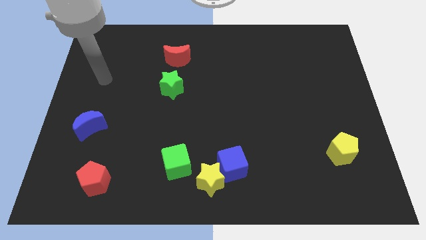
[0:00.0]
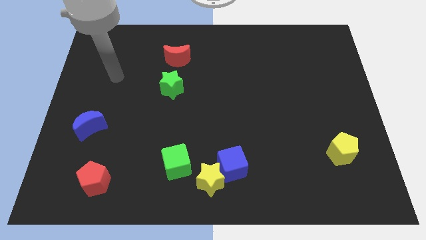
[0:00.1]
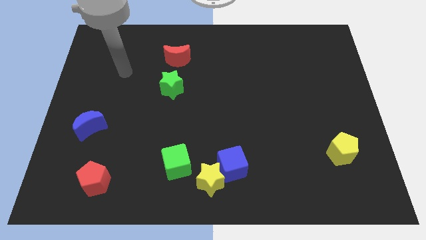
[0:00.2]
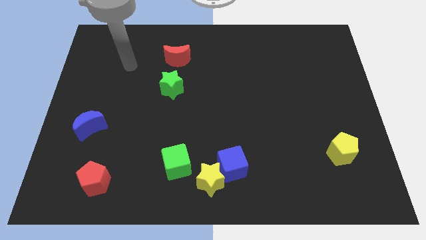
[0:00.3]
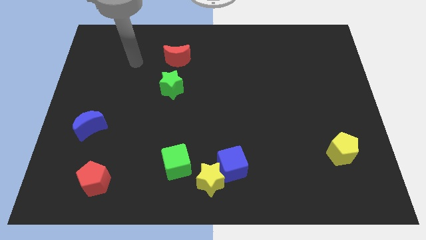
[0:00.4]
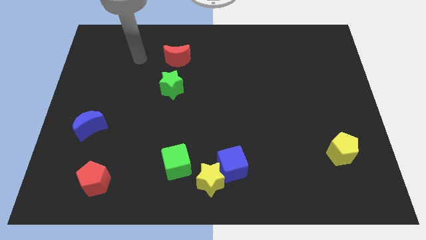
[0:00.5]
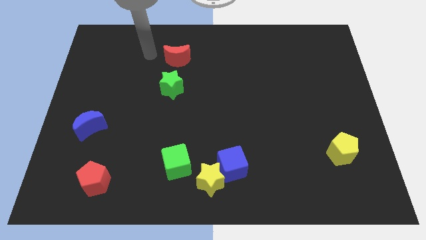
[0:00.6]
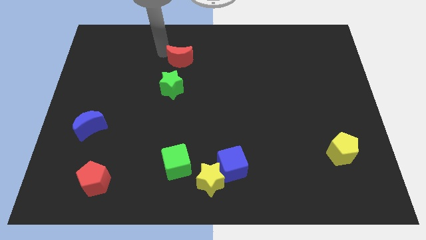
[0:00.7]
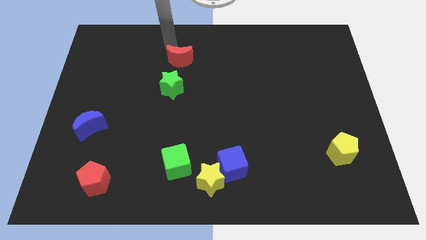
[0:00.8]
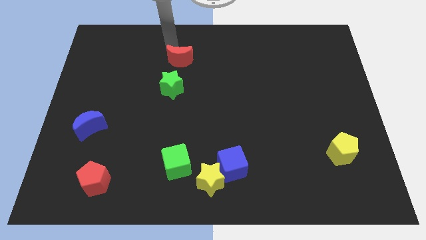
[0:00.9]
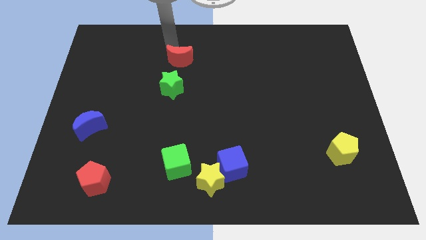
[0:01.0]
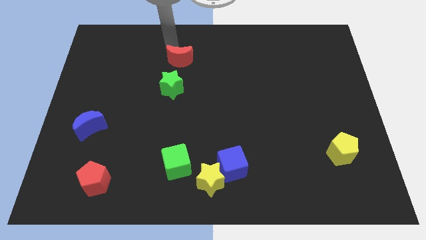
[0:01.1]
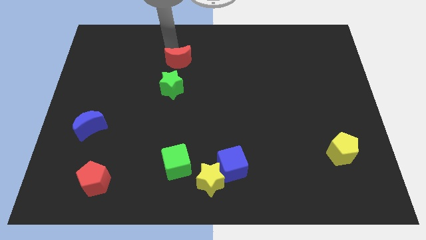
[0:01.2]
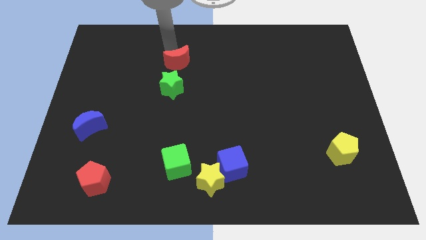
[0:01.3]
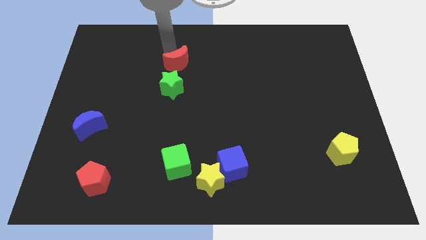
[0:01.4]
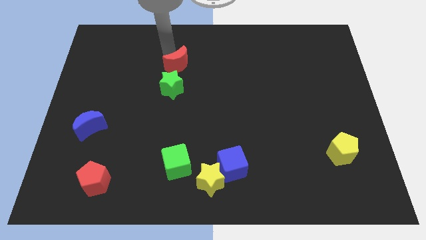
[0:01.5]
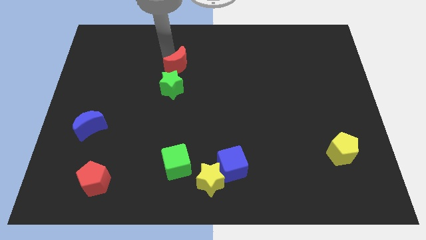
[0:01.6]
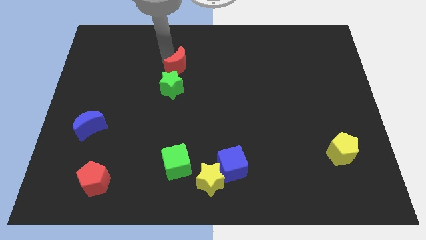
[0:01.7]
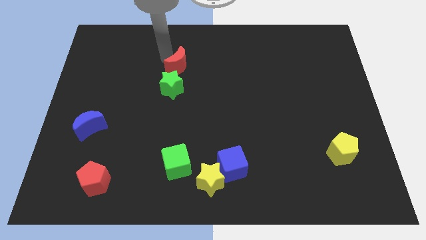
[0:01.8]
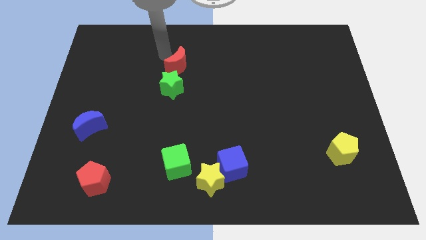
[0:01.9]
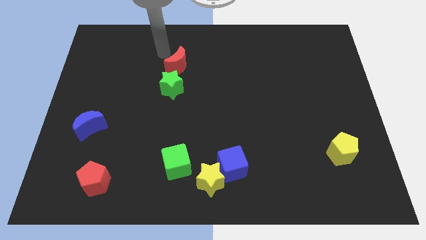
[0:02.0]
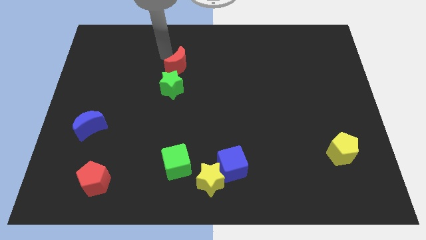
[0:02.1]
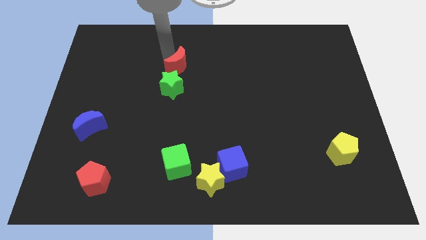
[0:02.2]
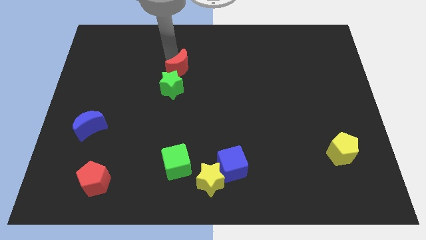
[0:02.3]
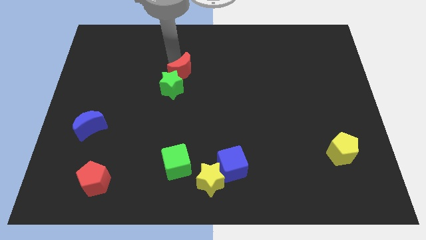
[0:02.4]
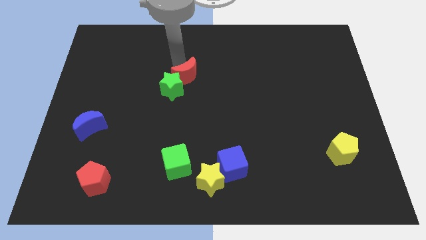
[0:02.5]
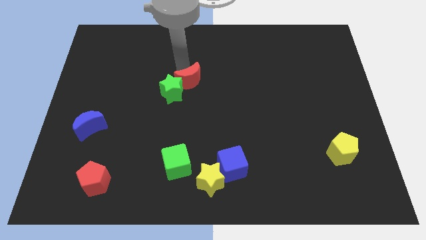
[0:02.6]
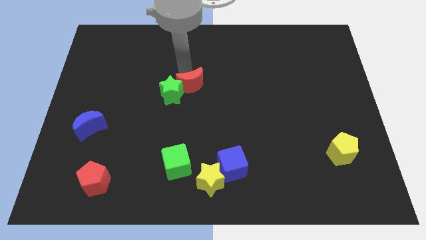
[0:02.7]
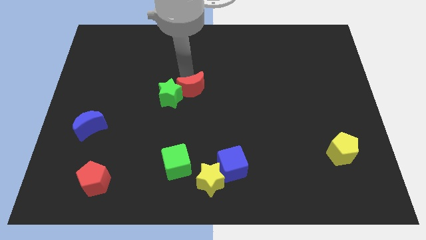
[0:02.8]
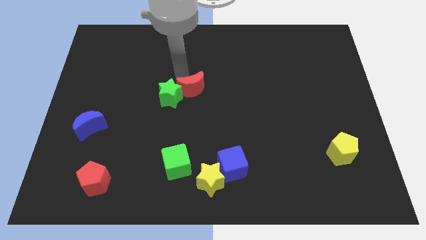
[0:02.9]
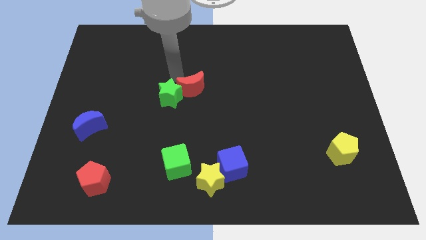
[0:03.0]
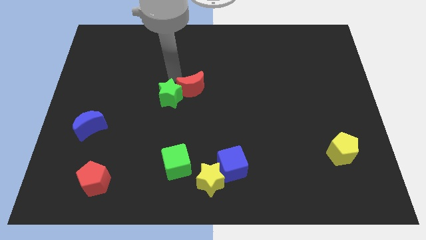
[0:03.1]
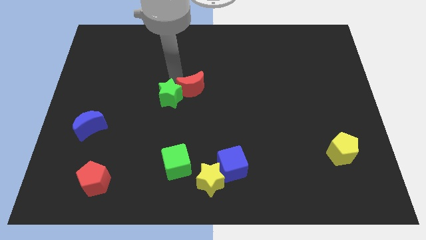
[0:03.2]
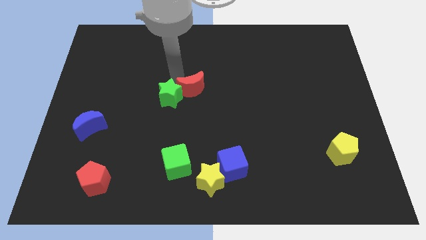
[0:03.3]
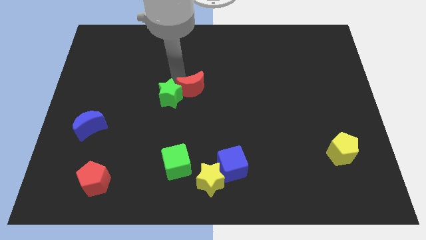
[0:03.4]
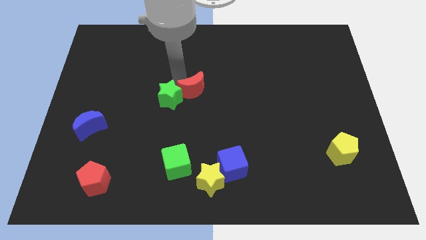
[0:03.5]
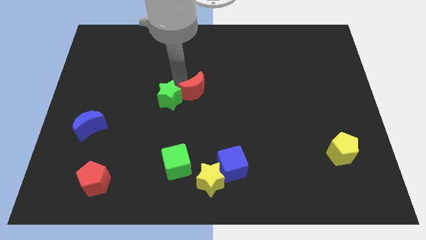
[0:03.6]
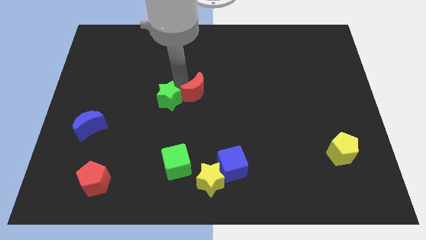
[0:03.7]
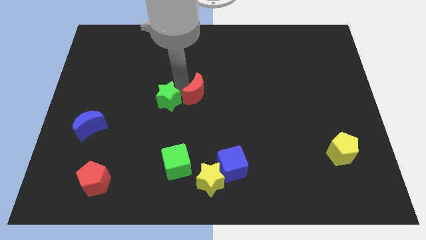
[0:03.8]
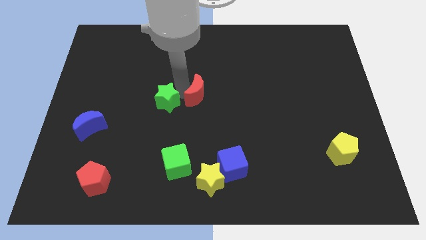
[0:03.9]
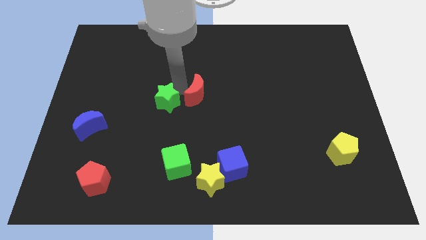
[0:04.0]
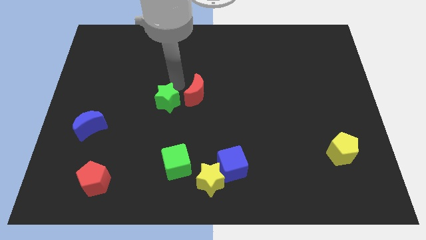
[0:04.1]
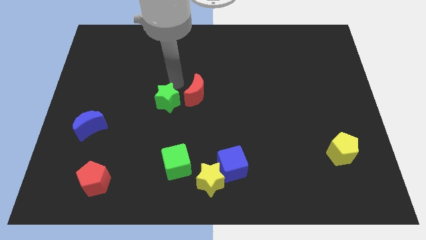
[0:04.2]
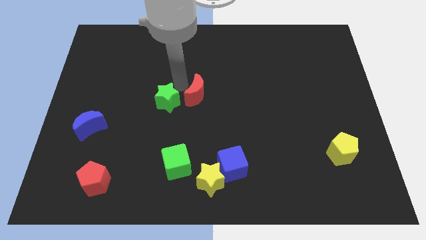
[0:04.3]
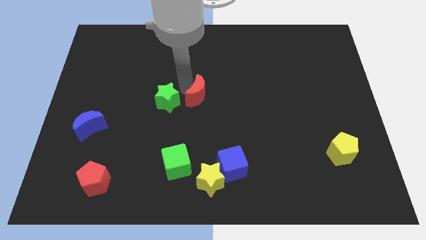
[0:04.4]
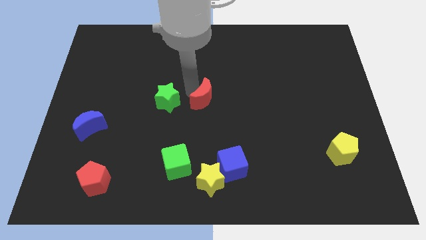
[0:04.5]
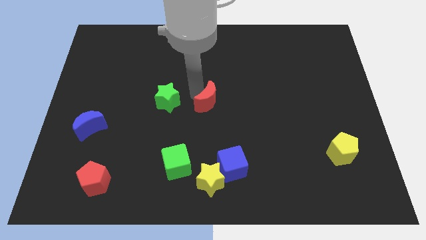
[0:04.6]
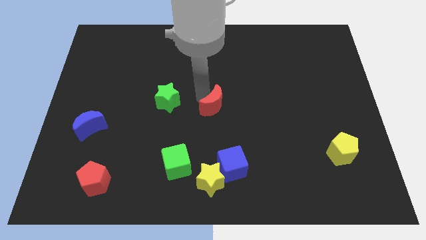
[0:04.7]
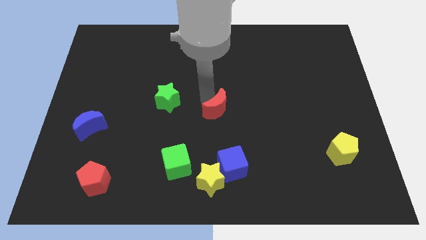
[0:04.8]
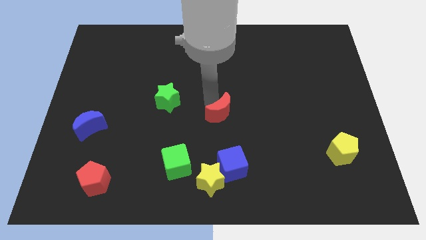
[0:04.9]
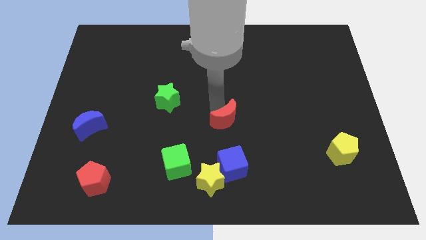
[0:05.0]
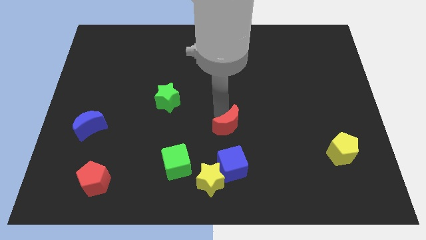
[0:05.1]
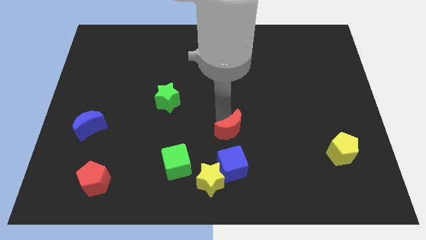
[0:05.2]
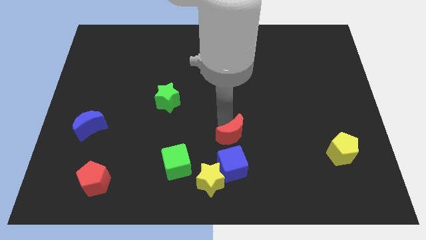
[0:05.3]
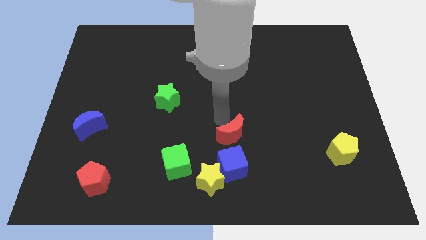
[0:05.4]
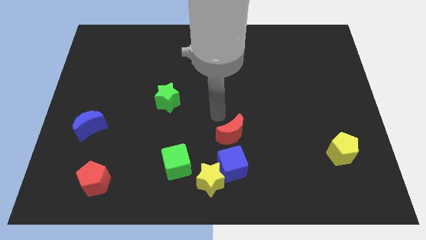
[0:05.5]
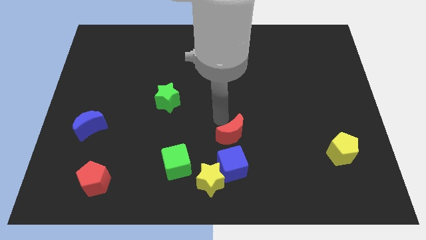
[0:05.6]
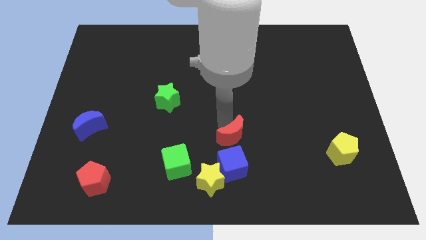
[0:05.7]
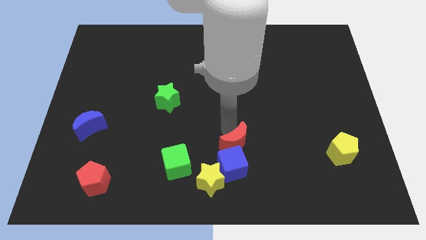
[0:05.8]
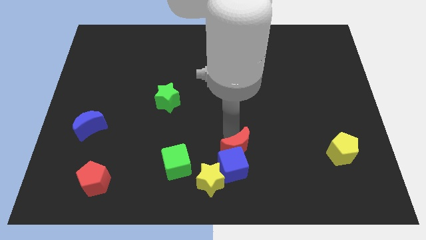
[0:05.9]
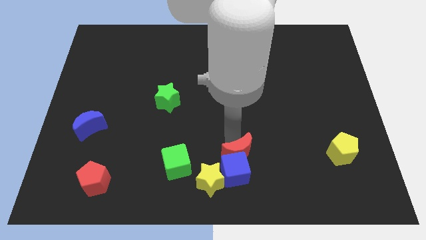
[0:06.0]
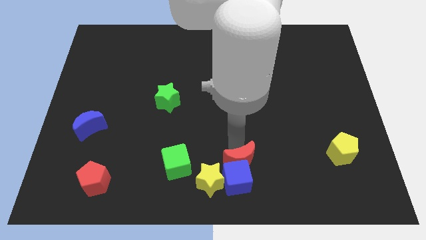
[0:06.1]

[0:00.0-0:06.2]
push the red moon to the bottom
